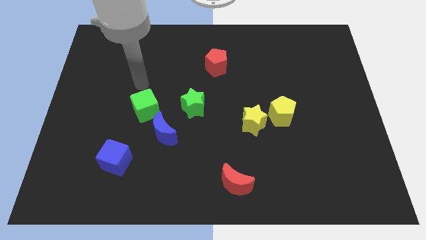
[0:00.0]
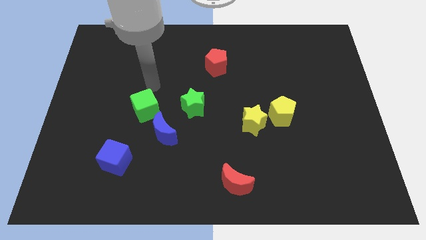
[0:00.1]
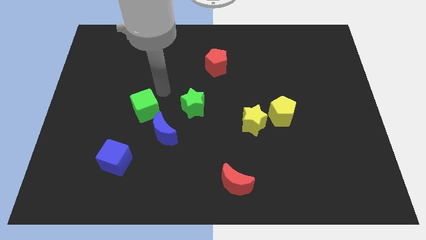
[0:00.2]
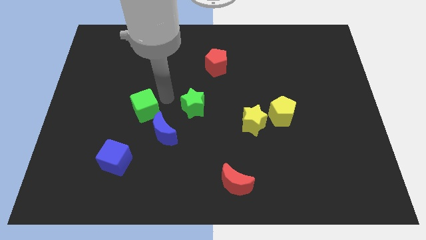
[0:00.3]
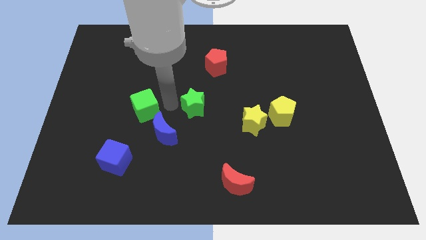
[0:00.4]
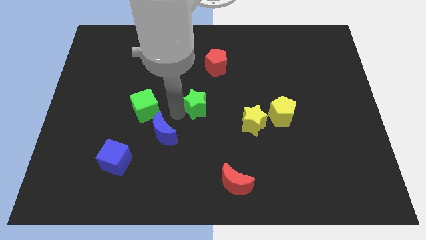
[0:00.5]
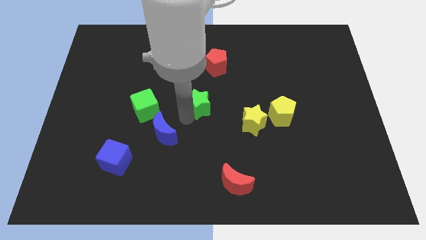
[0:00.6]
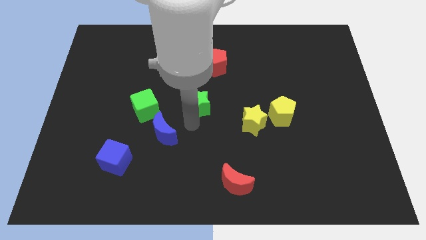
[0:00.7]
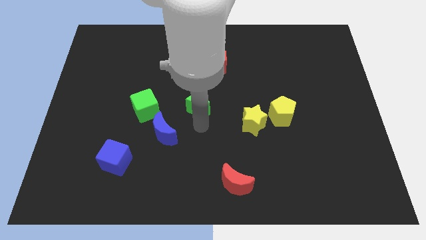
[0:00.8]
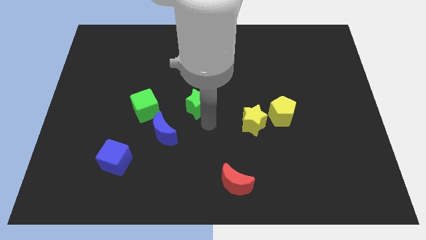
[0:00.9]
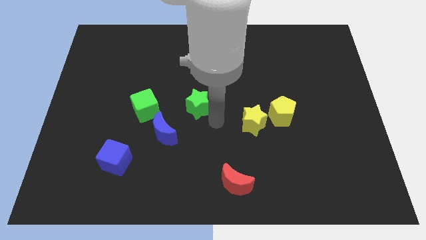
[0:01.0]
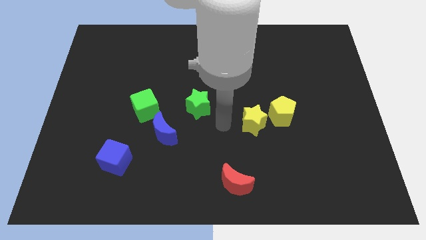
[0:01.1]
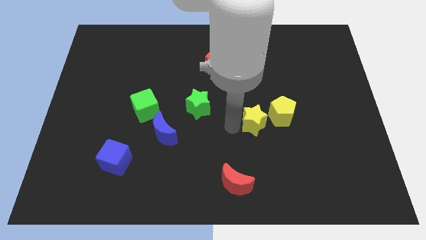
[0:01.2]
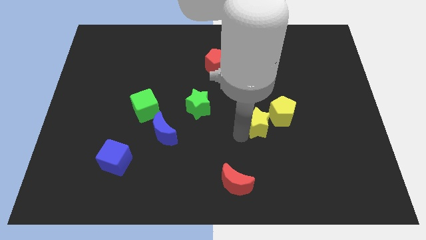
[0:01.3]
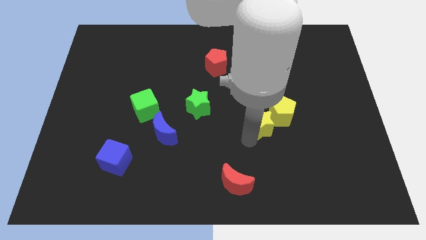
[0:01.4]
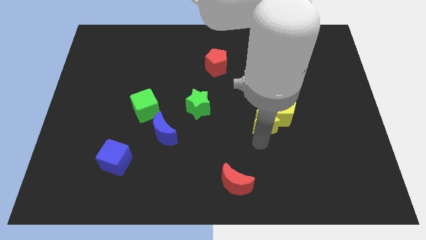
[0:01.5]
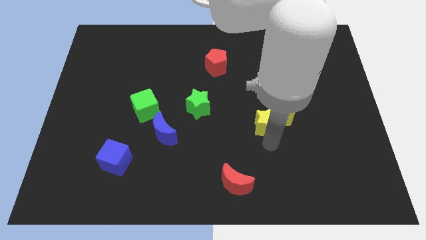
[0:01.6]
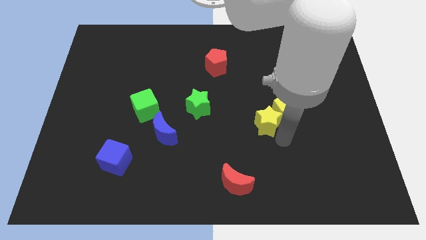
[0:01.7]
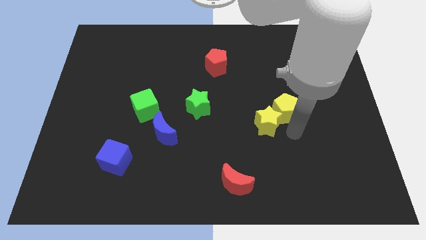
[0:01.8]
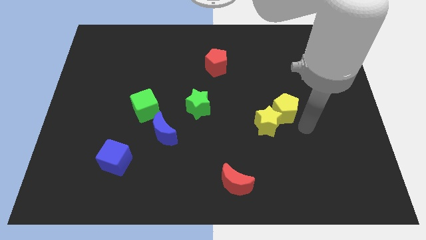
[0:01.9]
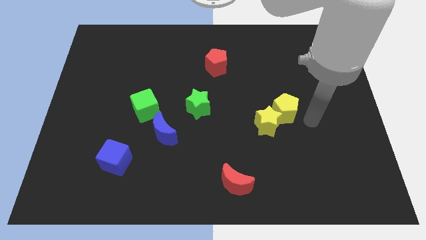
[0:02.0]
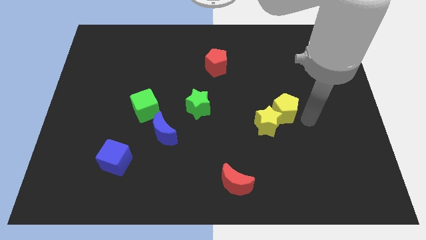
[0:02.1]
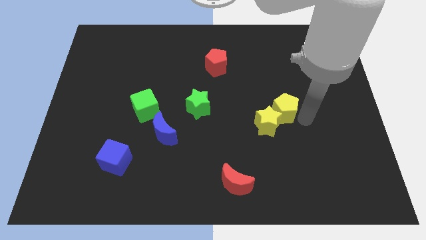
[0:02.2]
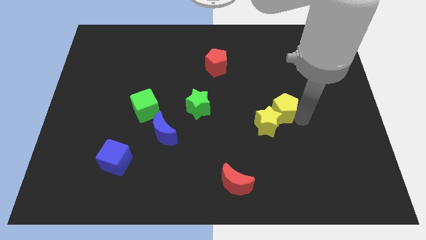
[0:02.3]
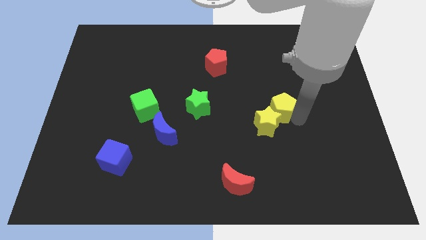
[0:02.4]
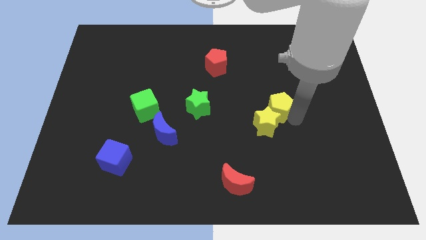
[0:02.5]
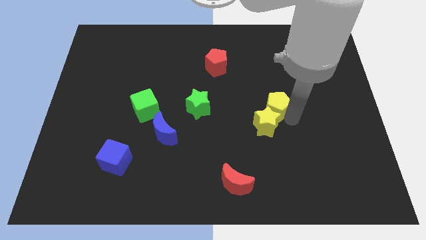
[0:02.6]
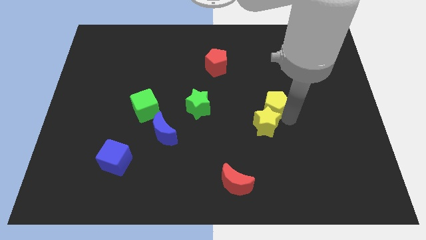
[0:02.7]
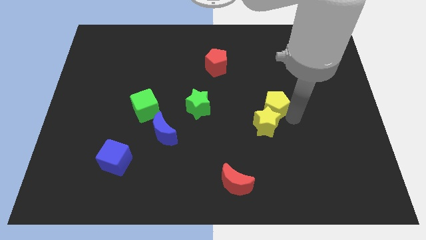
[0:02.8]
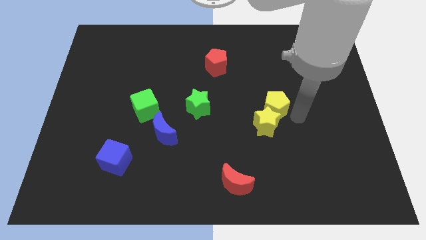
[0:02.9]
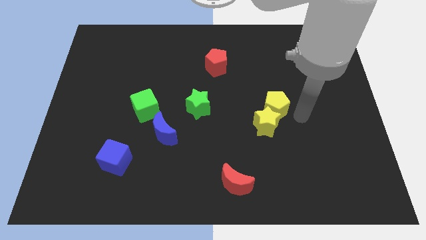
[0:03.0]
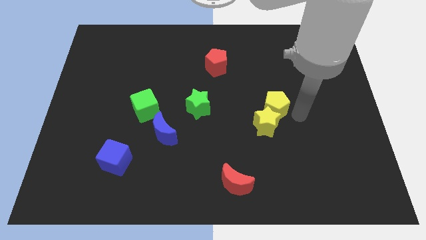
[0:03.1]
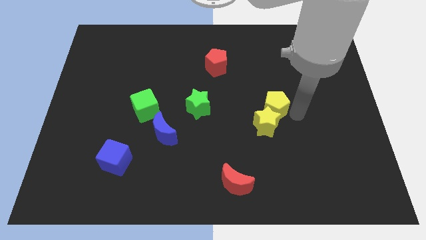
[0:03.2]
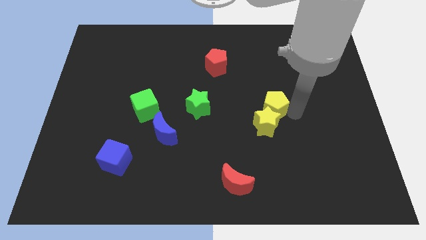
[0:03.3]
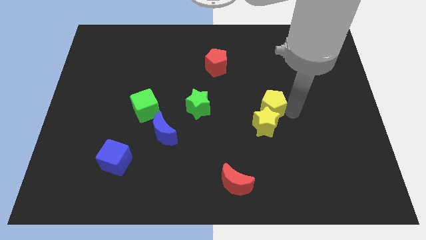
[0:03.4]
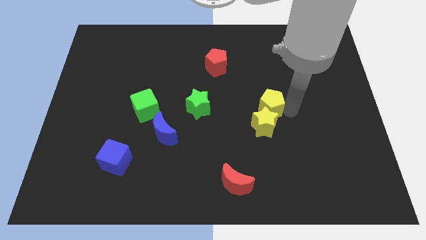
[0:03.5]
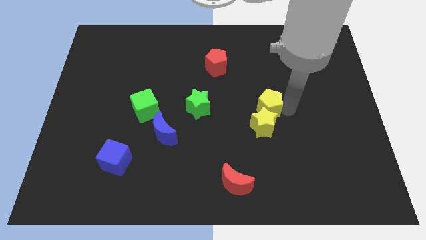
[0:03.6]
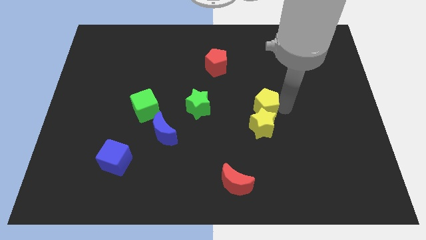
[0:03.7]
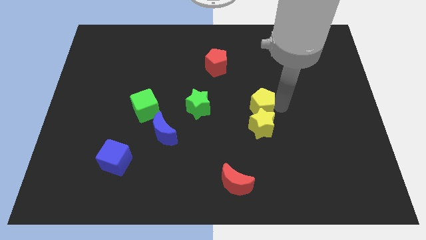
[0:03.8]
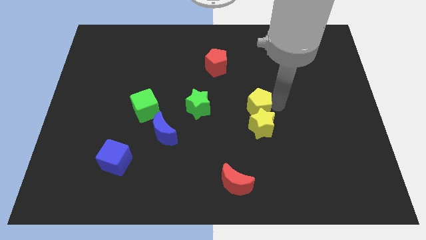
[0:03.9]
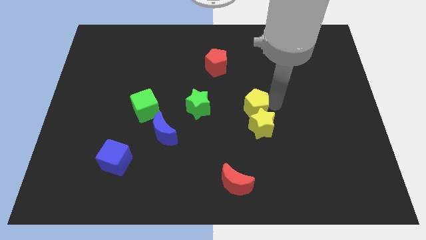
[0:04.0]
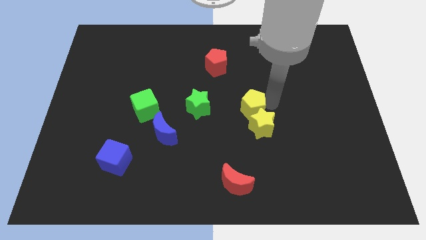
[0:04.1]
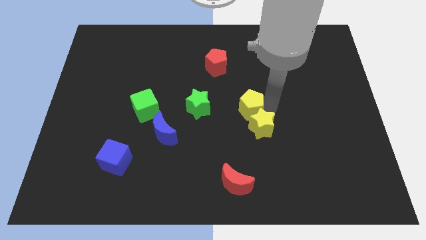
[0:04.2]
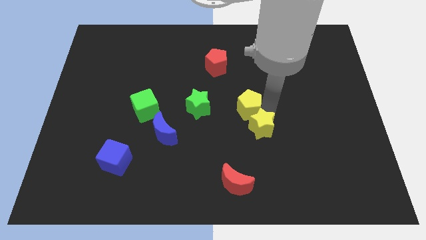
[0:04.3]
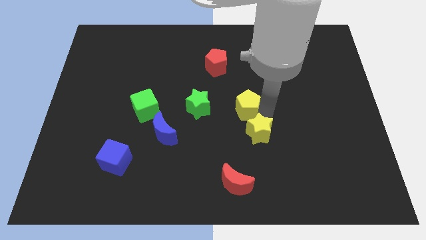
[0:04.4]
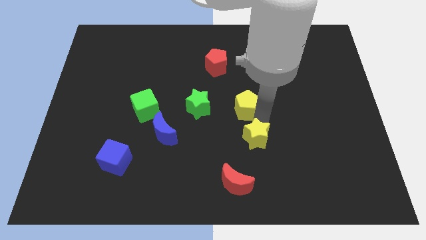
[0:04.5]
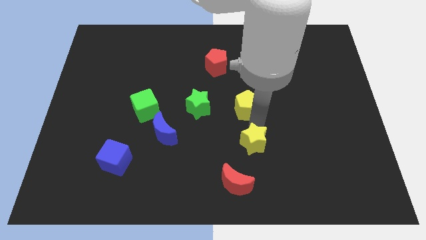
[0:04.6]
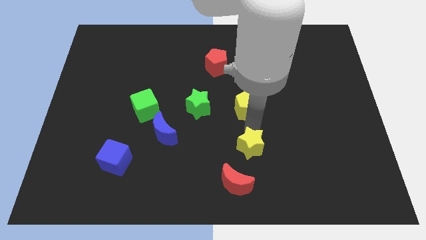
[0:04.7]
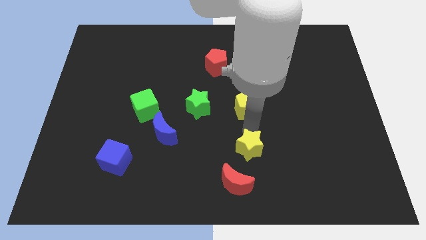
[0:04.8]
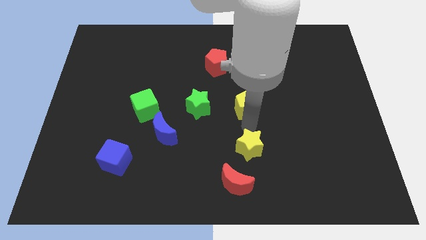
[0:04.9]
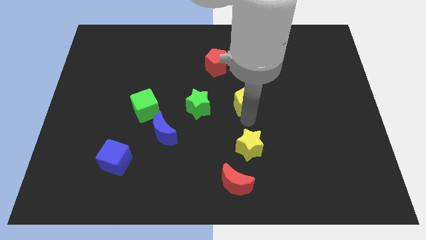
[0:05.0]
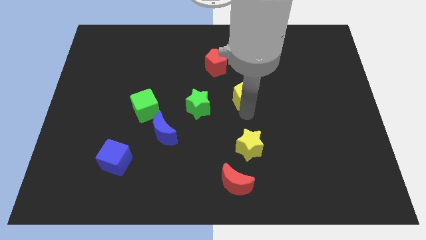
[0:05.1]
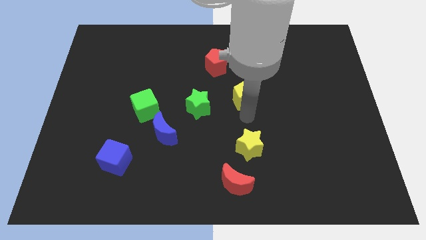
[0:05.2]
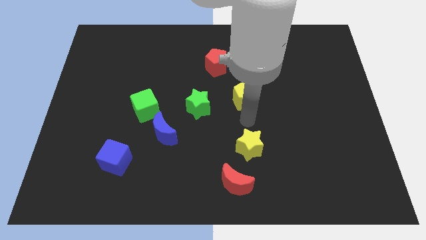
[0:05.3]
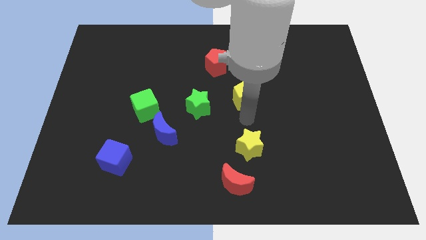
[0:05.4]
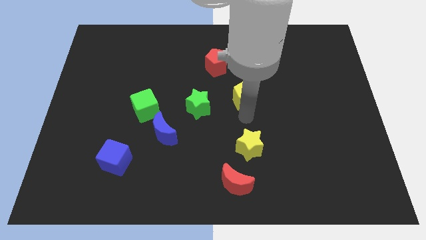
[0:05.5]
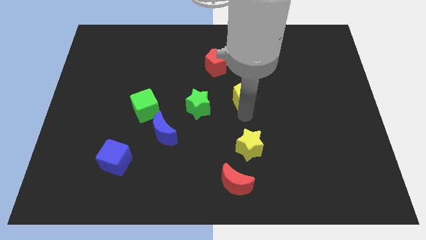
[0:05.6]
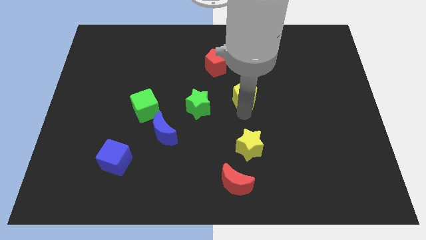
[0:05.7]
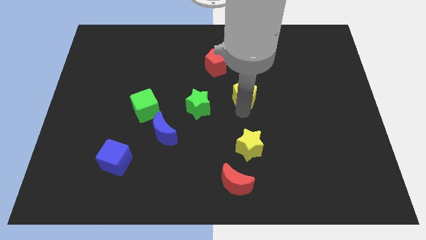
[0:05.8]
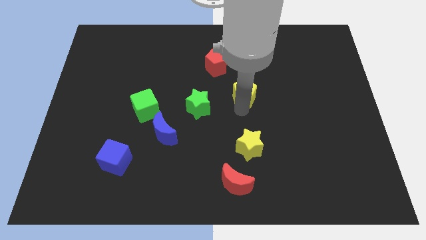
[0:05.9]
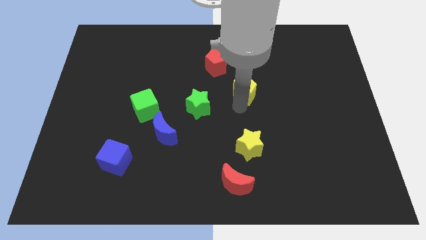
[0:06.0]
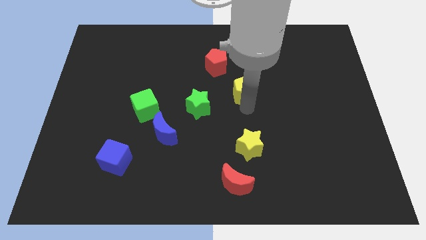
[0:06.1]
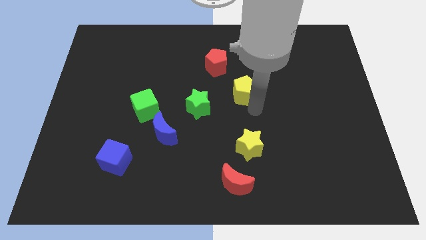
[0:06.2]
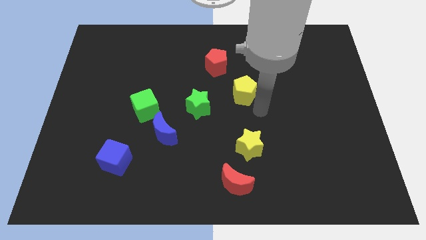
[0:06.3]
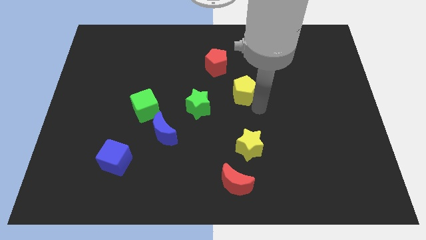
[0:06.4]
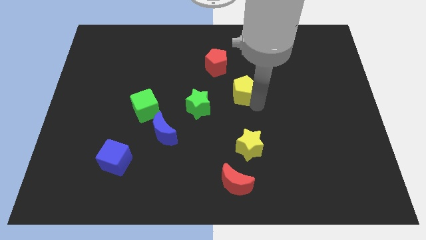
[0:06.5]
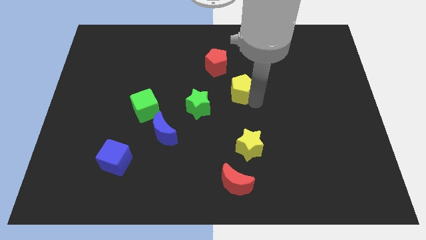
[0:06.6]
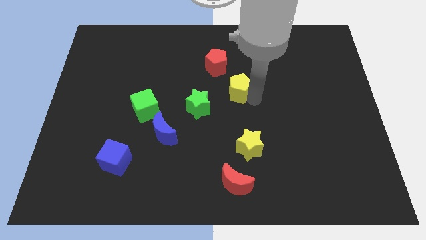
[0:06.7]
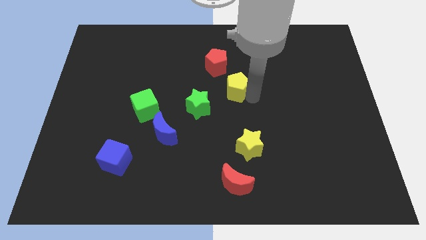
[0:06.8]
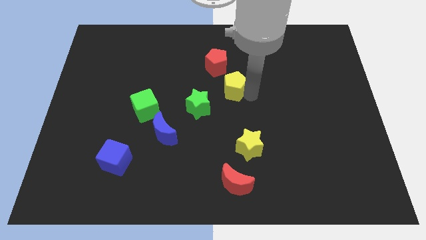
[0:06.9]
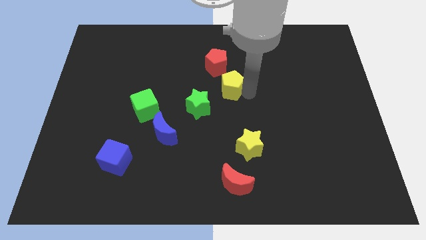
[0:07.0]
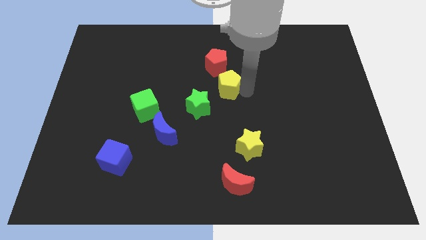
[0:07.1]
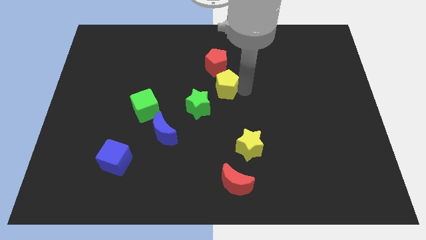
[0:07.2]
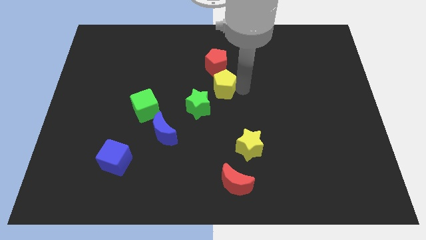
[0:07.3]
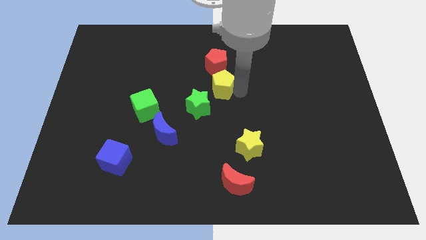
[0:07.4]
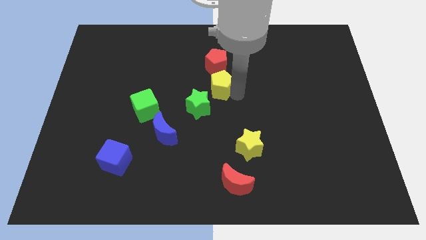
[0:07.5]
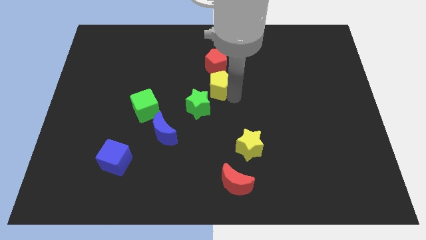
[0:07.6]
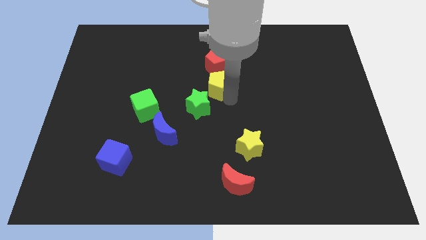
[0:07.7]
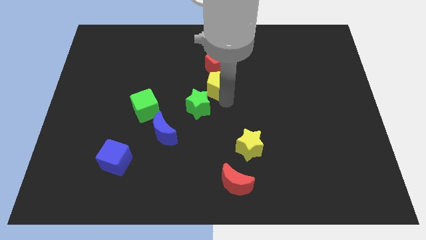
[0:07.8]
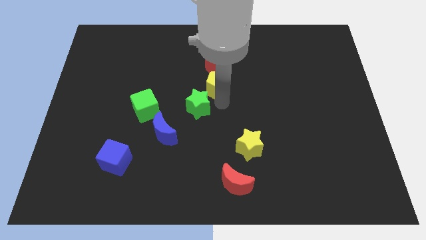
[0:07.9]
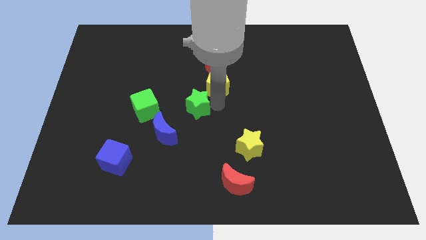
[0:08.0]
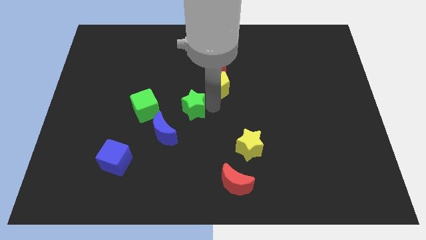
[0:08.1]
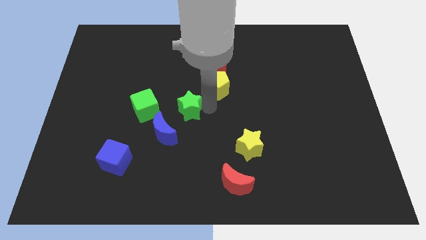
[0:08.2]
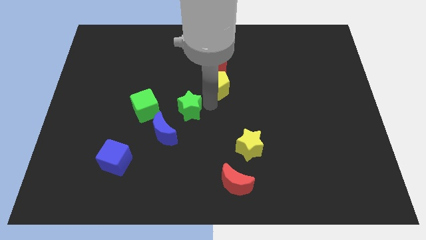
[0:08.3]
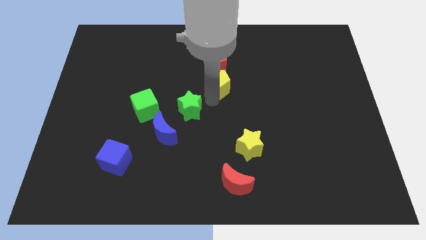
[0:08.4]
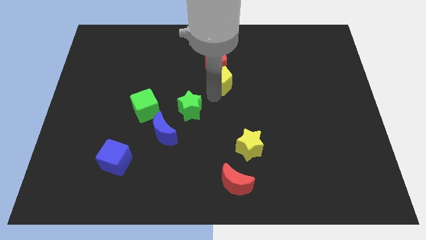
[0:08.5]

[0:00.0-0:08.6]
put the yellow pentagon close to the red pentagon
